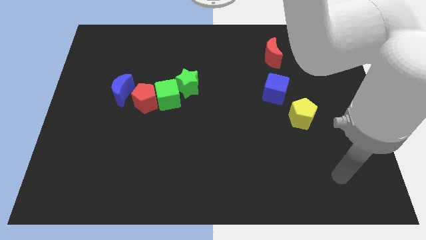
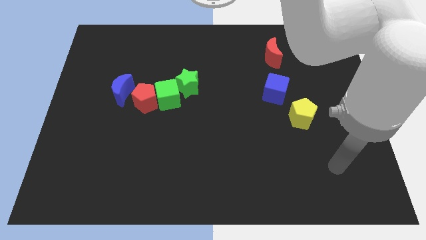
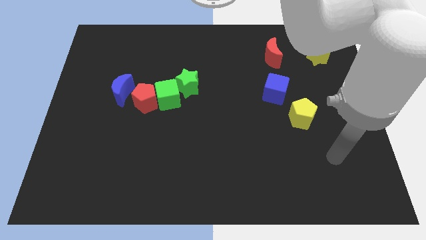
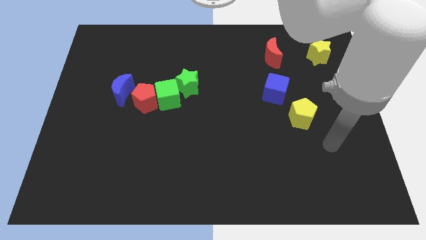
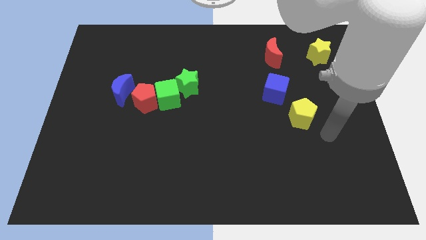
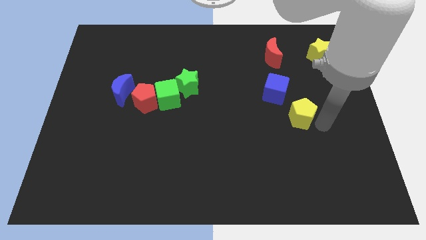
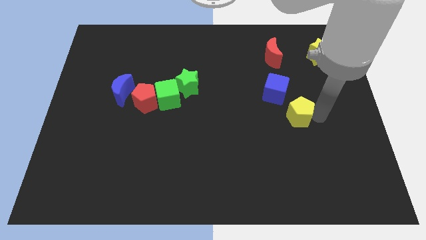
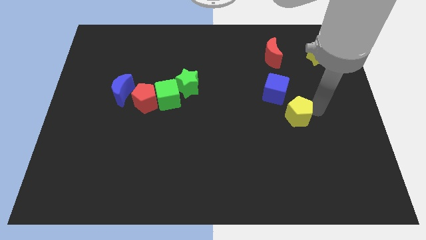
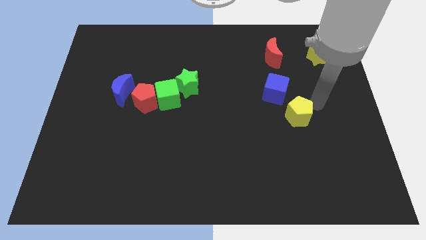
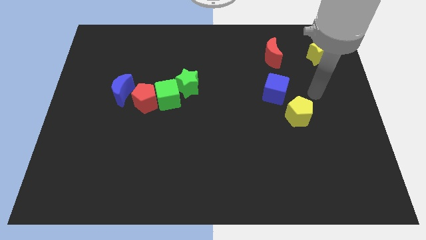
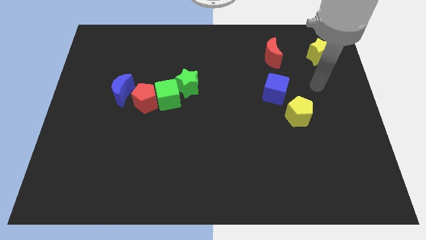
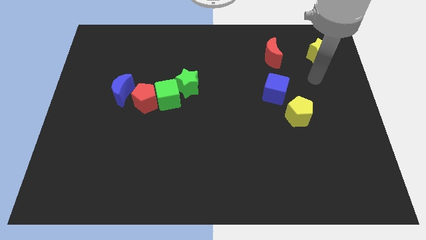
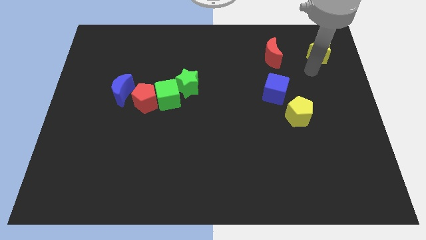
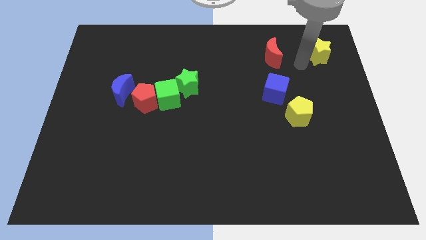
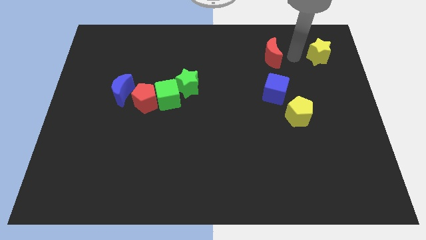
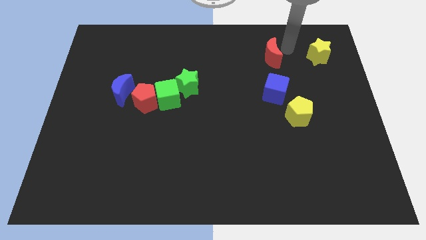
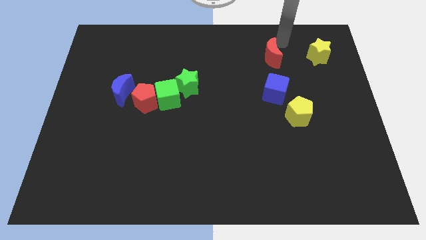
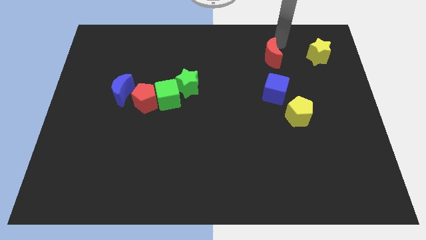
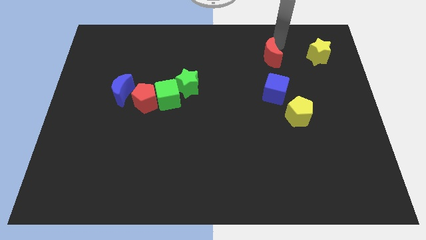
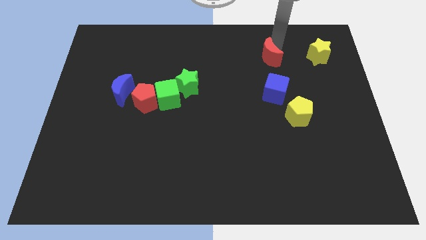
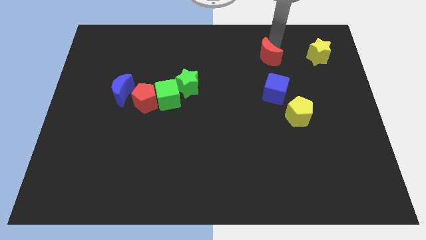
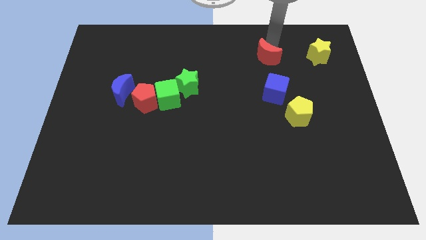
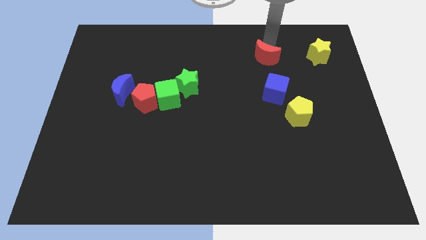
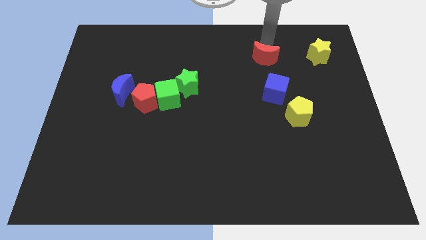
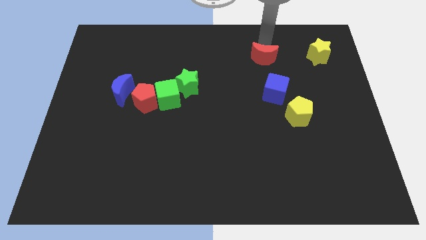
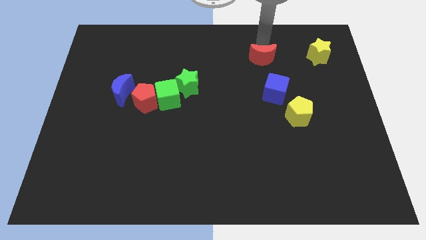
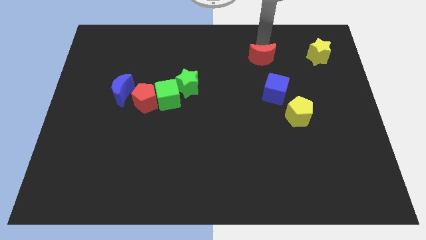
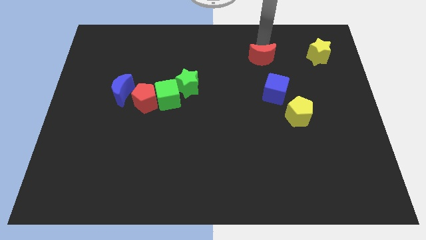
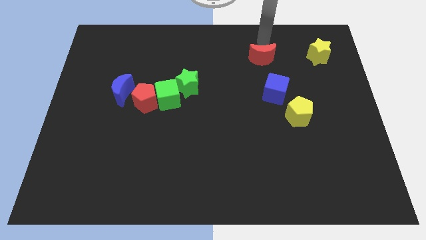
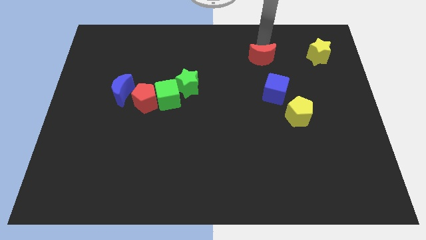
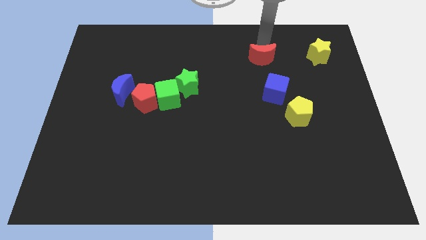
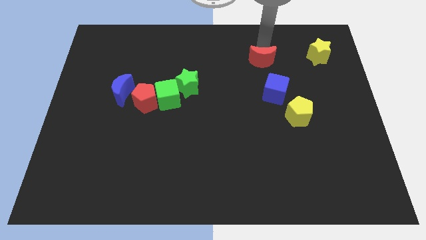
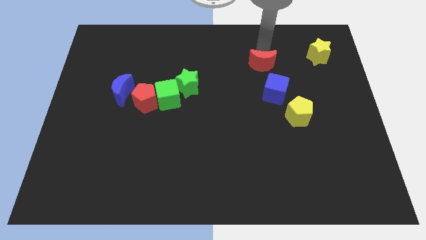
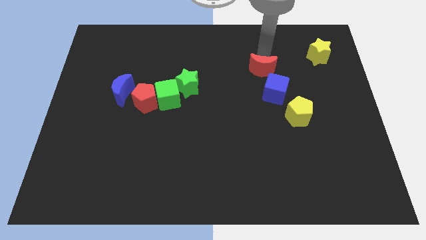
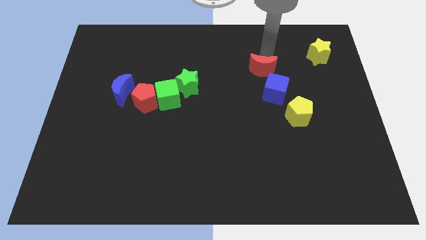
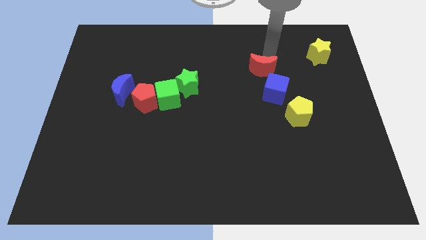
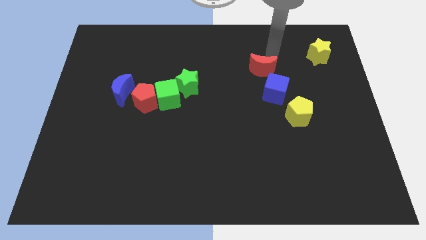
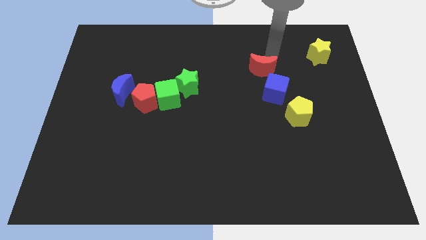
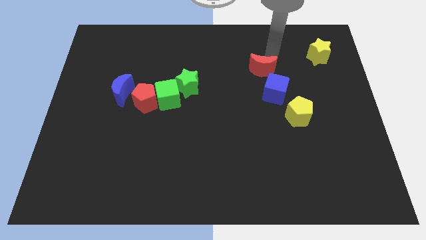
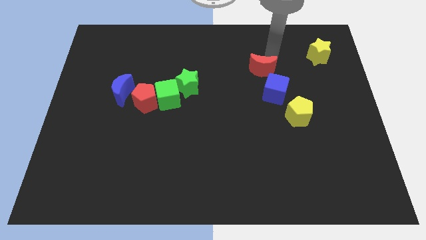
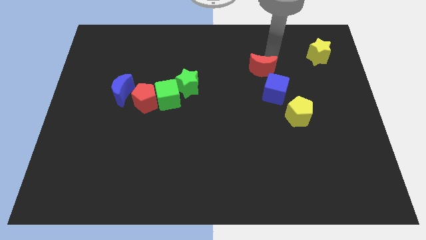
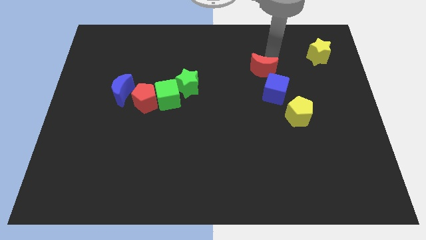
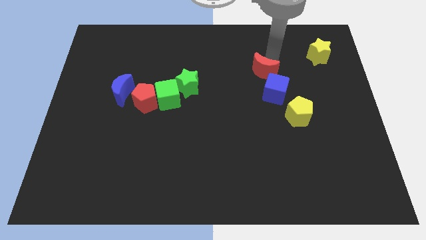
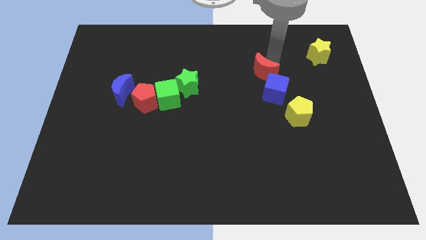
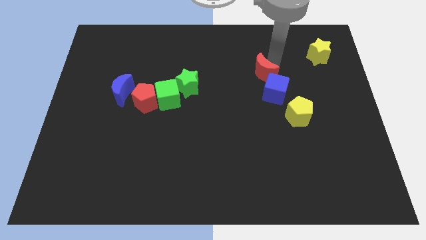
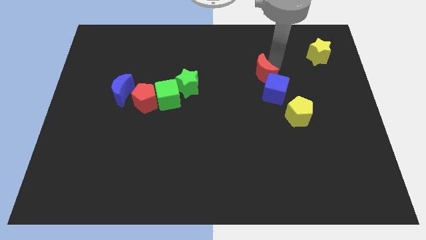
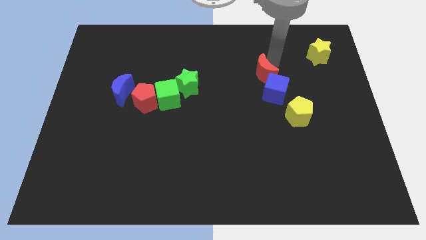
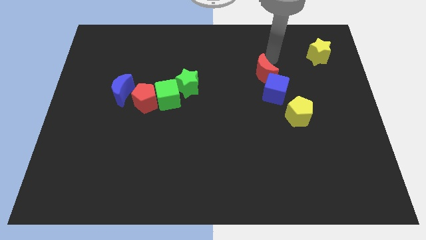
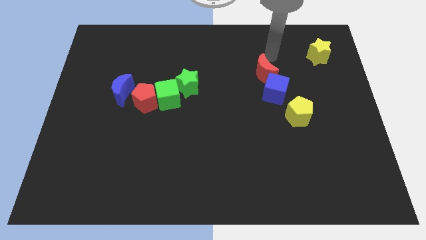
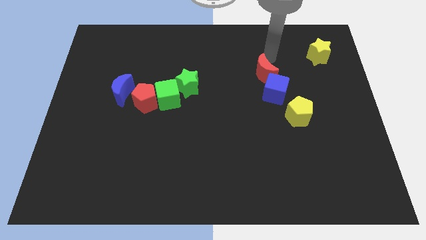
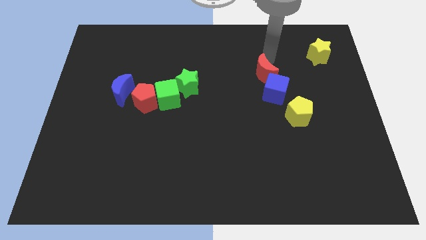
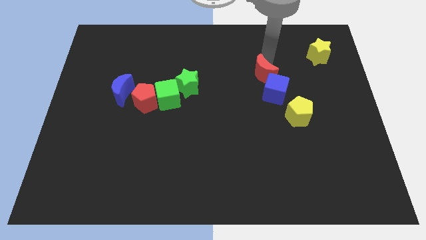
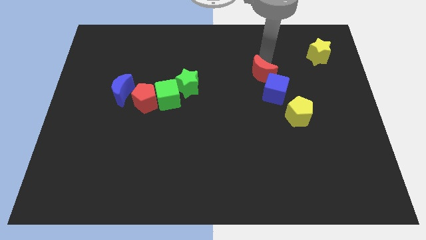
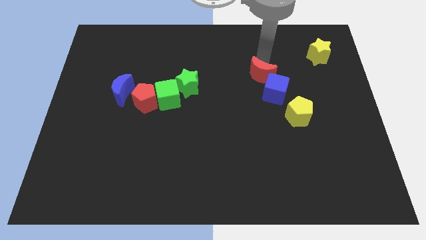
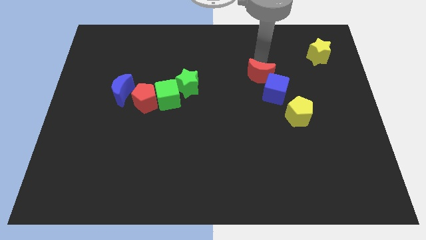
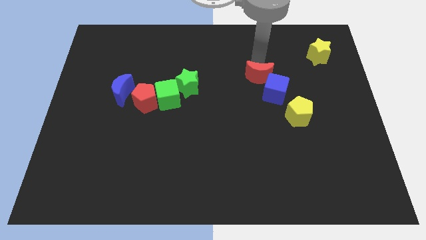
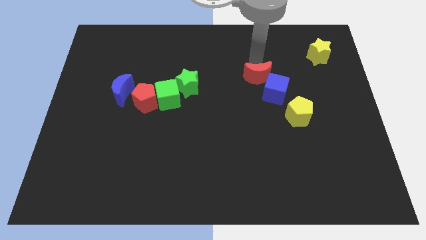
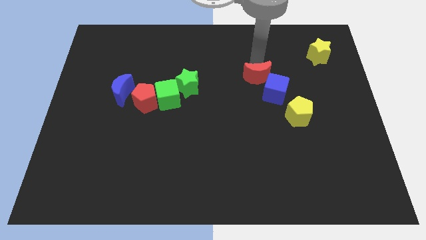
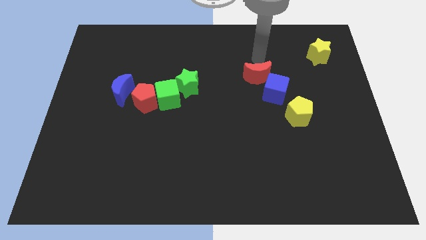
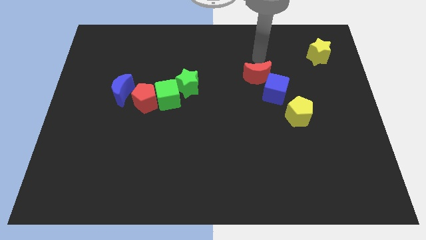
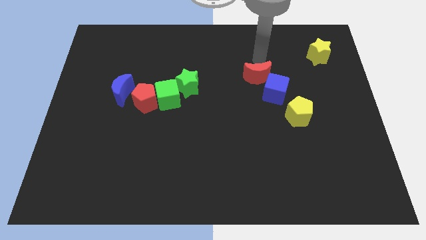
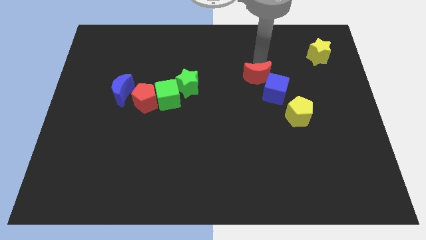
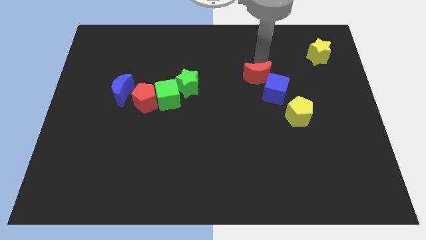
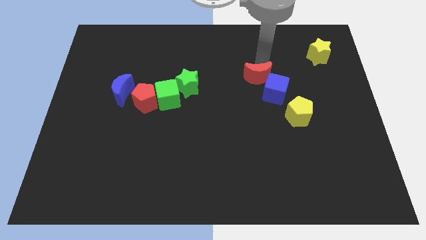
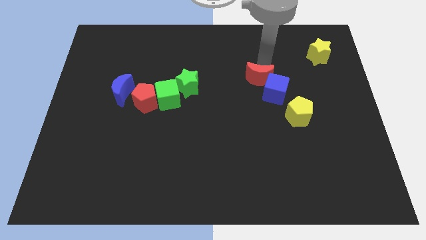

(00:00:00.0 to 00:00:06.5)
slightly slide the red moon down

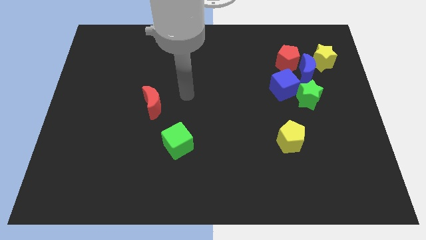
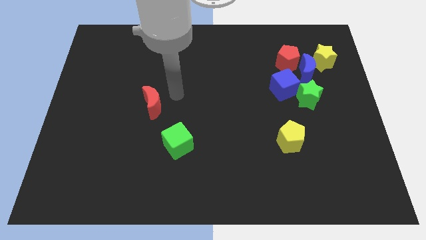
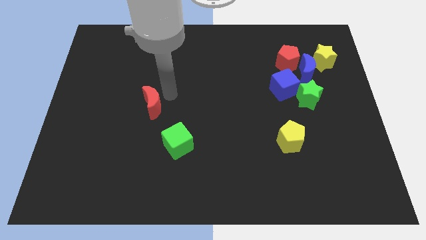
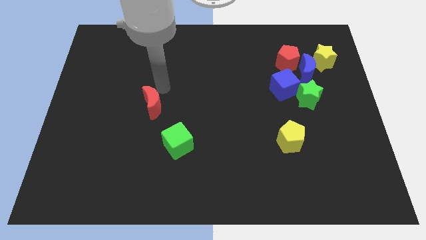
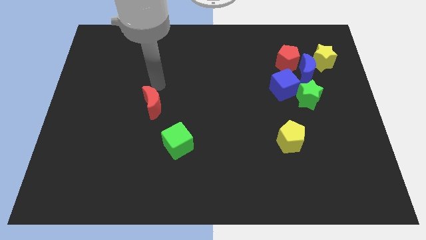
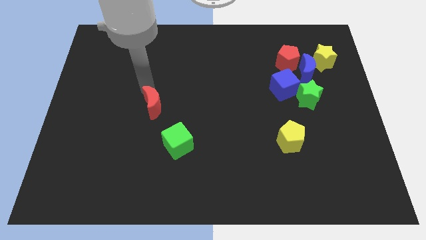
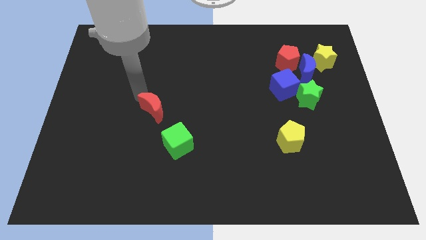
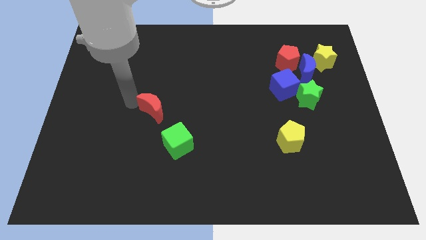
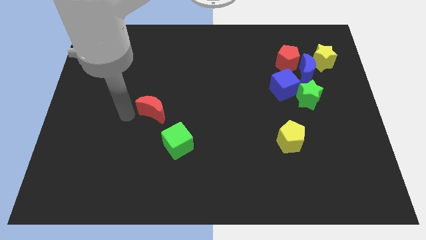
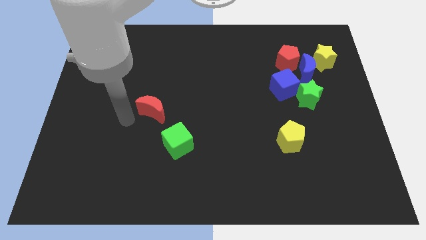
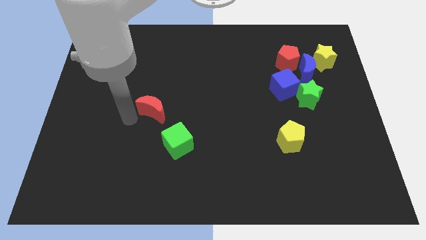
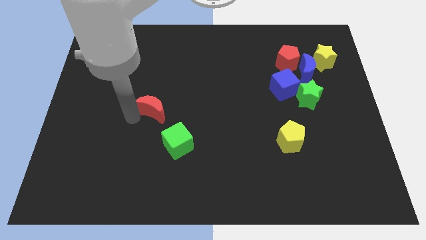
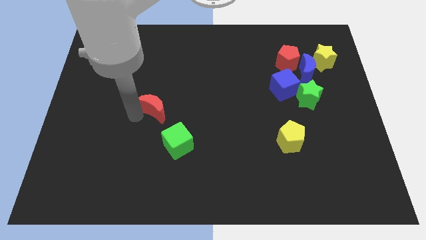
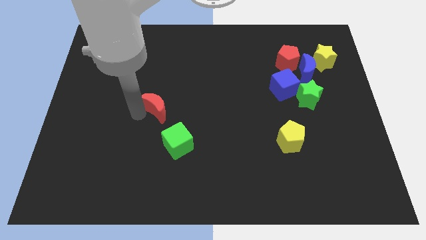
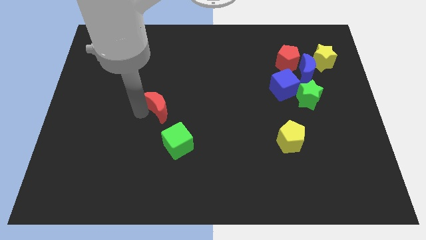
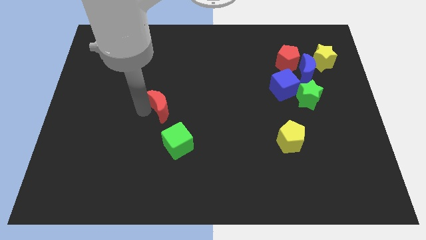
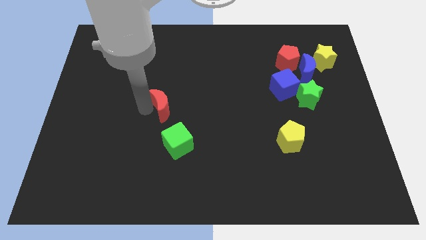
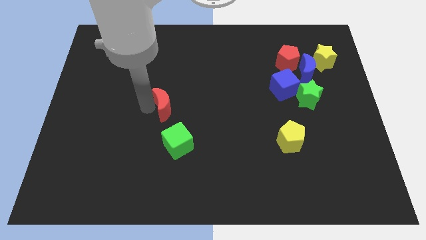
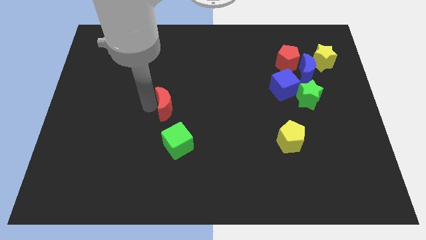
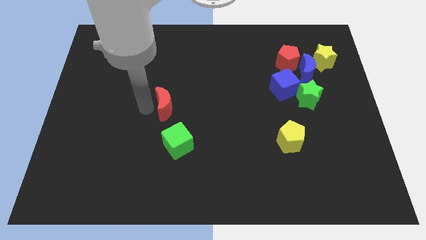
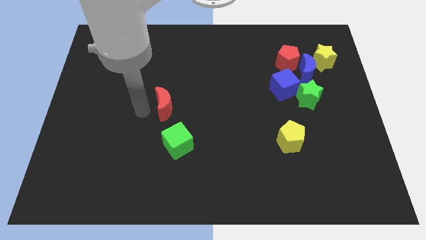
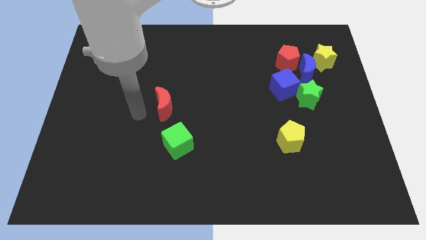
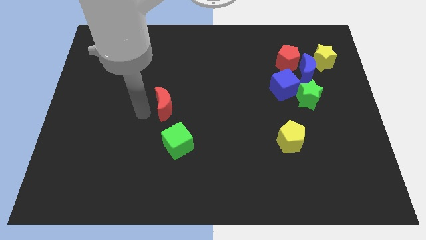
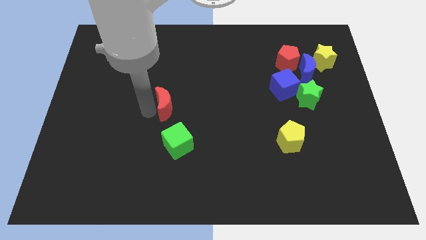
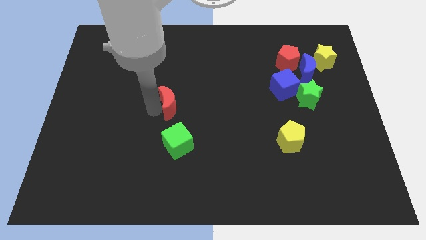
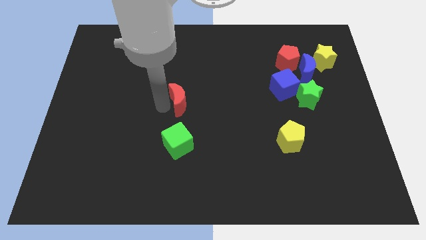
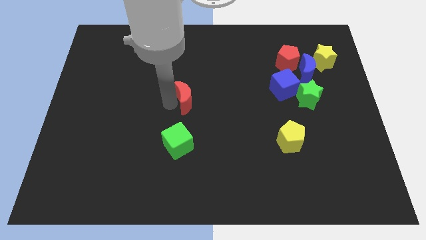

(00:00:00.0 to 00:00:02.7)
slide the red moon right a little bit
